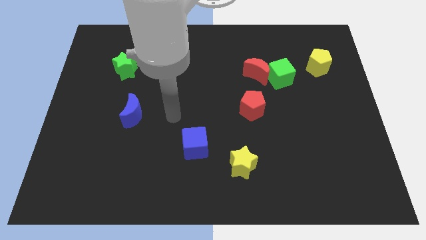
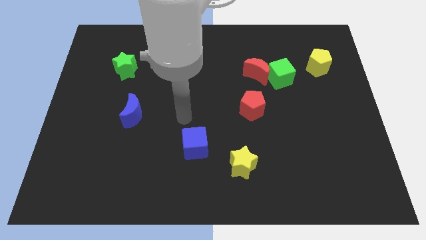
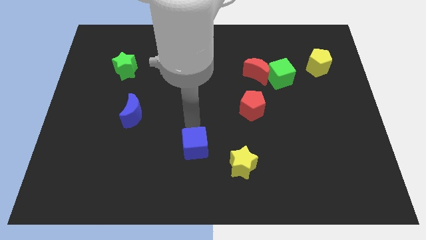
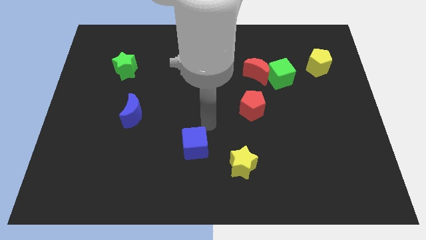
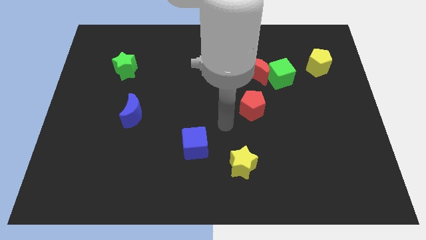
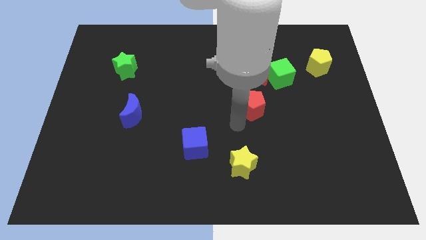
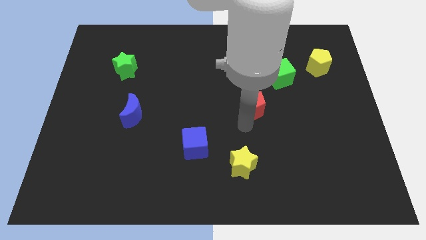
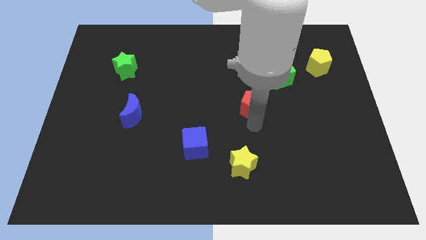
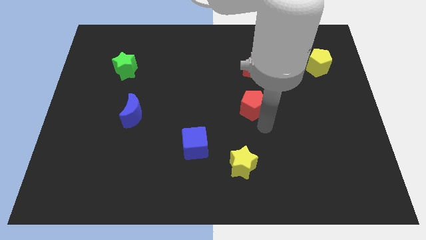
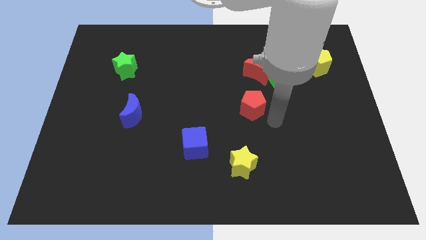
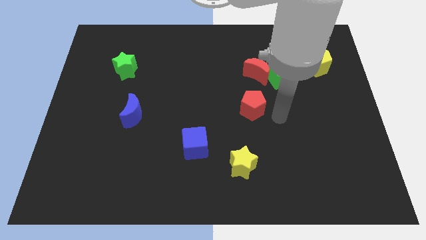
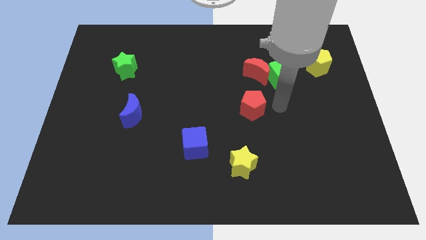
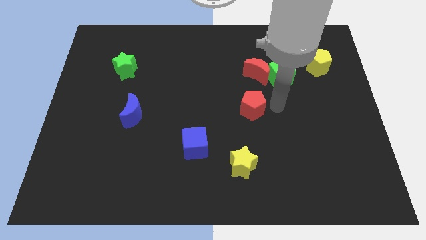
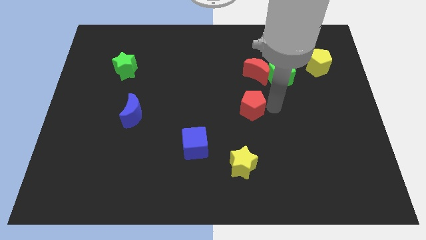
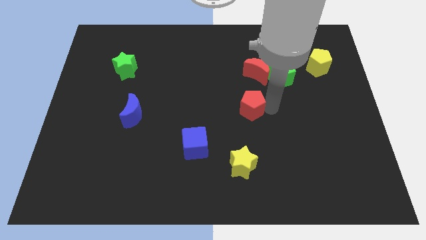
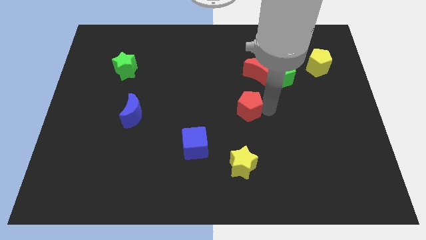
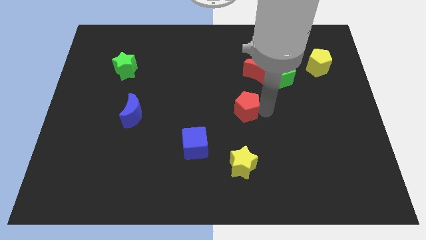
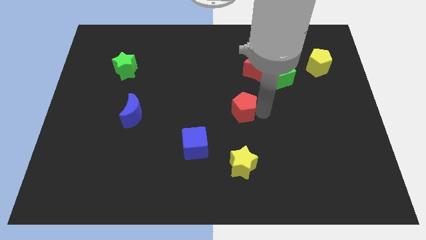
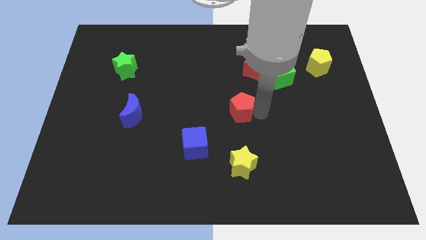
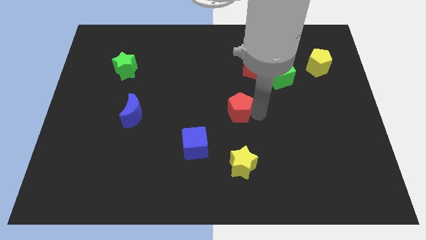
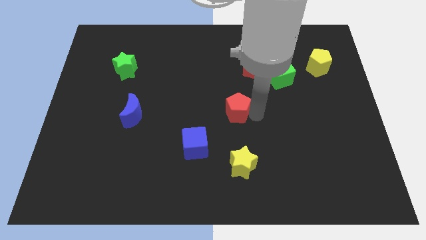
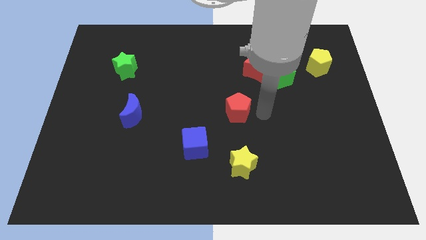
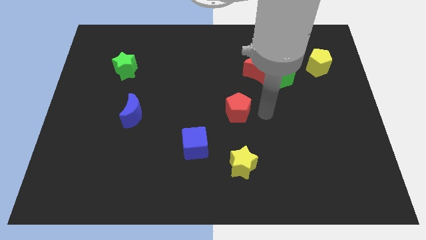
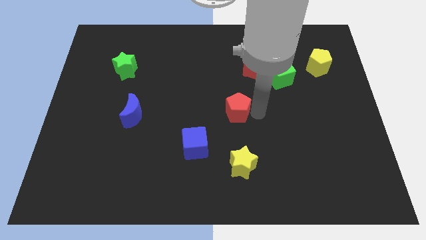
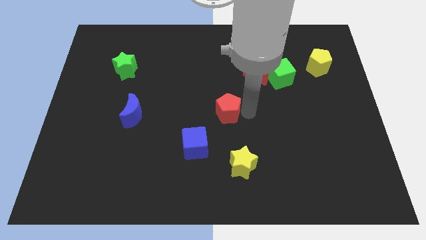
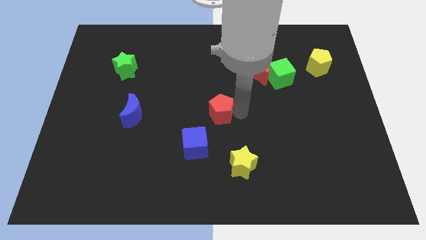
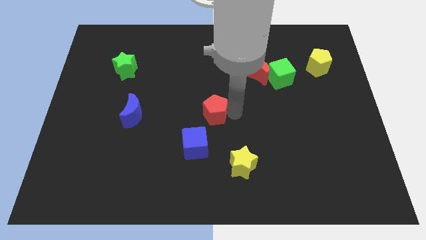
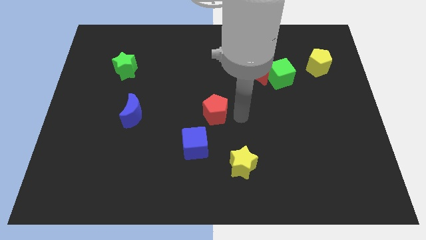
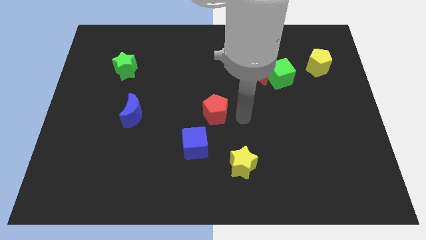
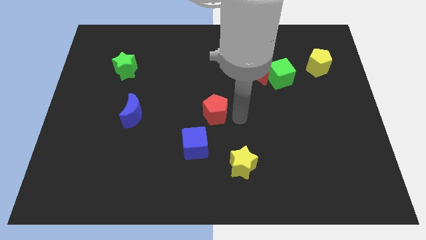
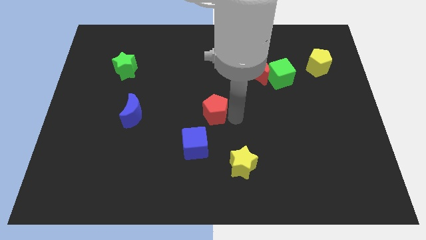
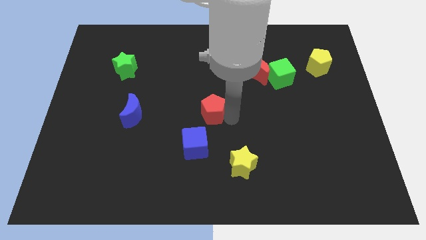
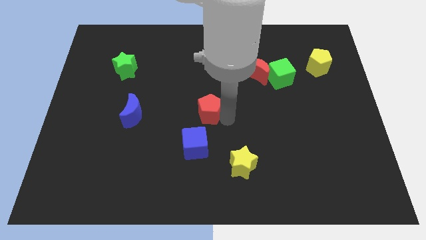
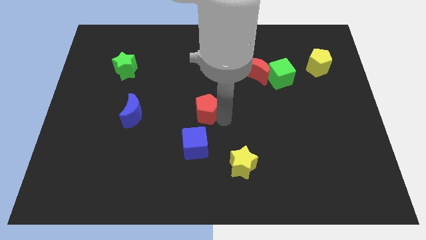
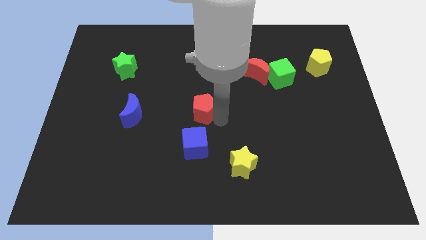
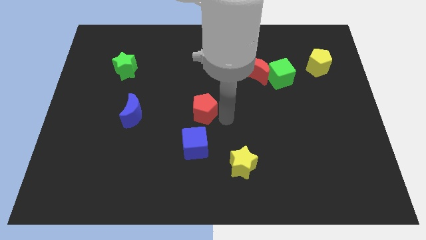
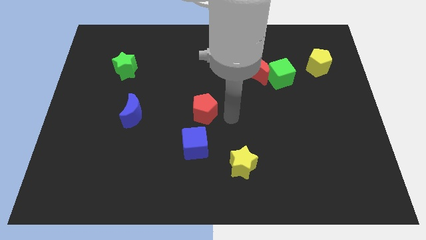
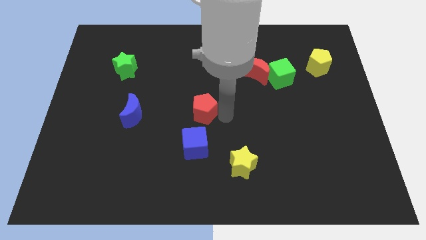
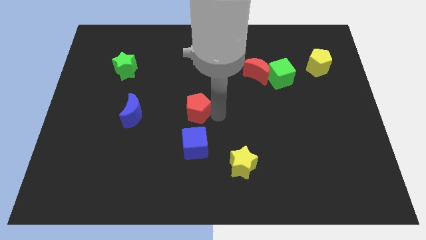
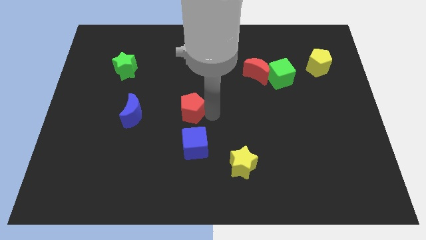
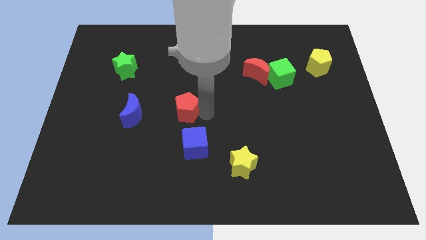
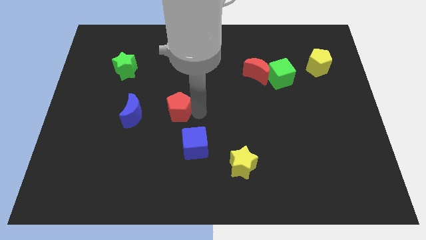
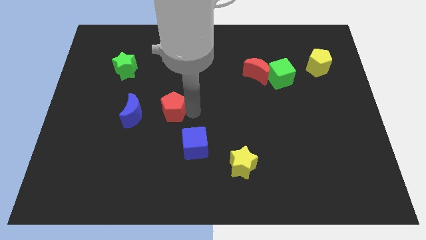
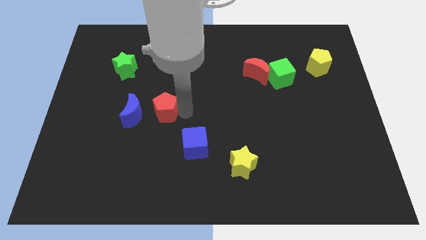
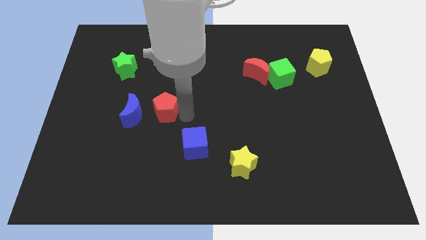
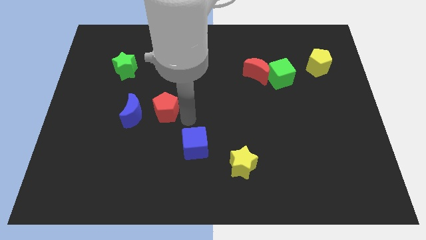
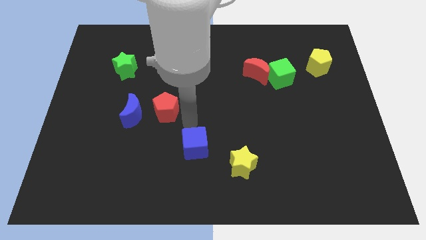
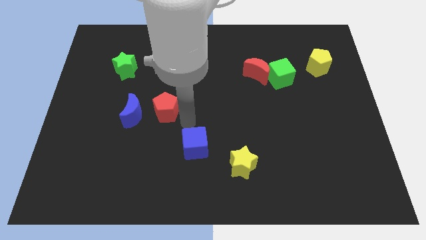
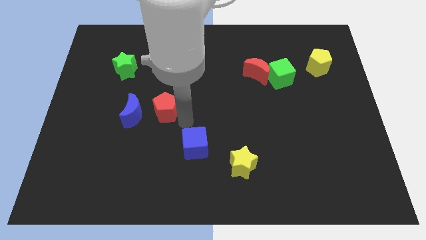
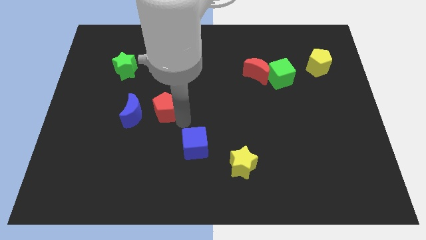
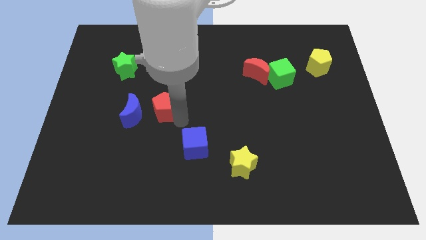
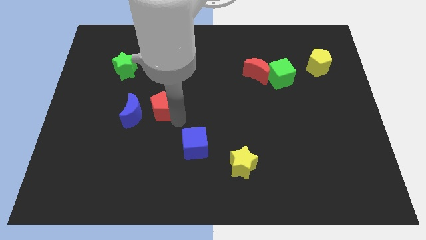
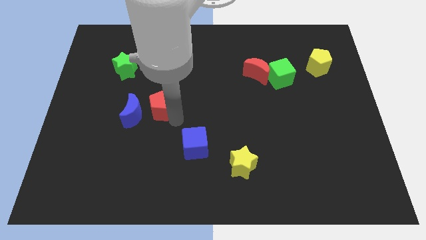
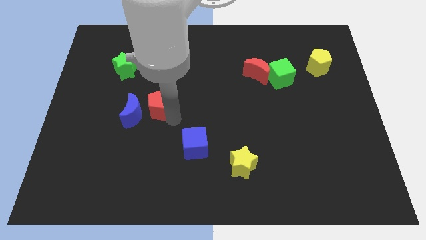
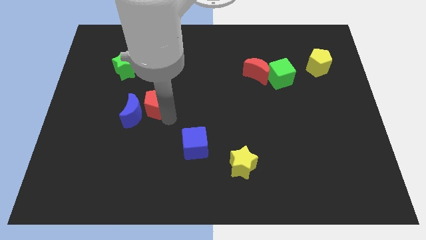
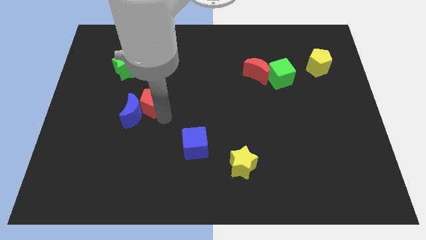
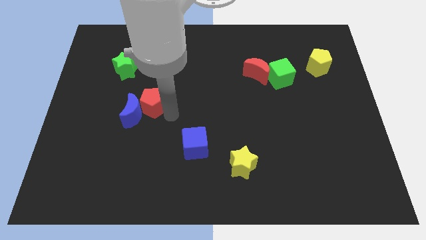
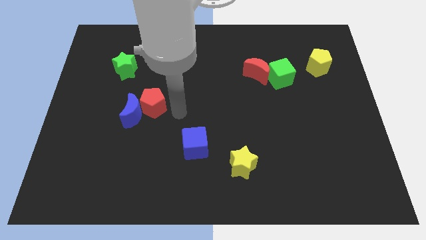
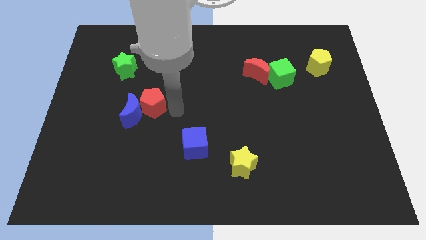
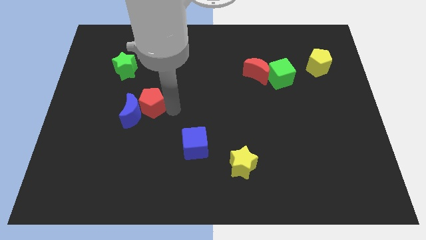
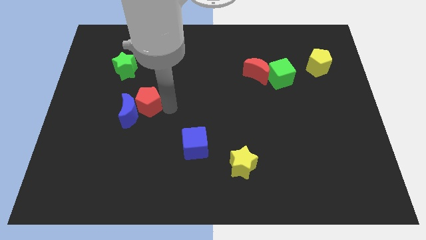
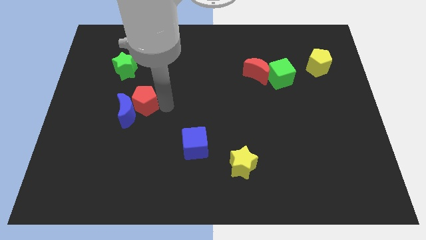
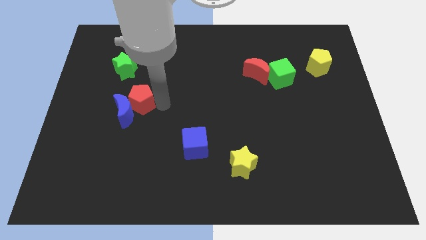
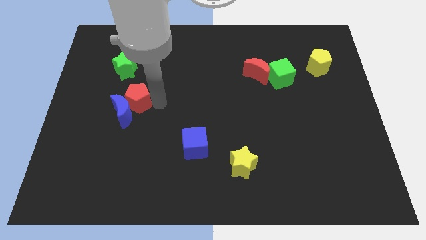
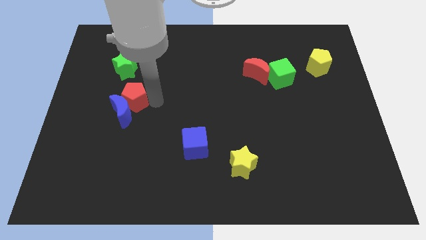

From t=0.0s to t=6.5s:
slide the red pentagon to the top left of the blue moon

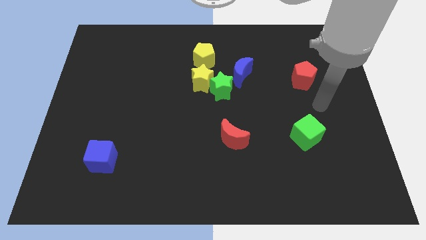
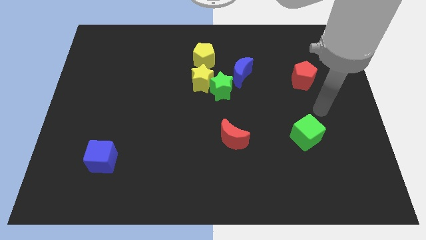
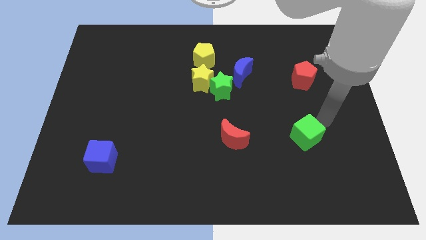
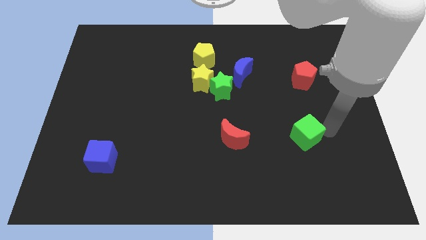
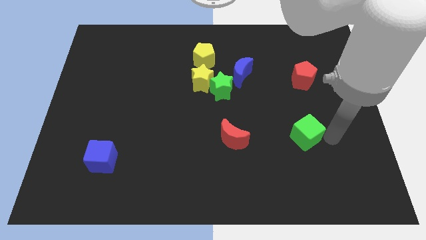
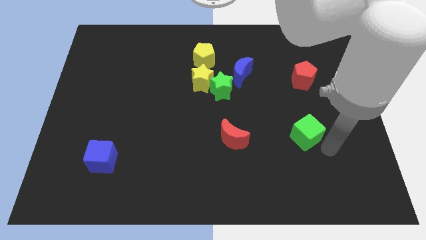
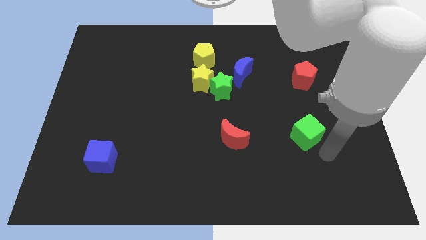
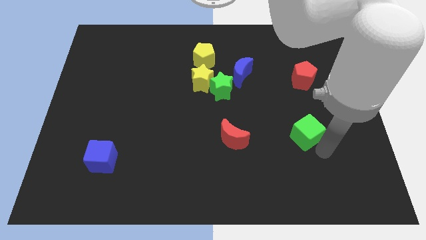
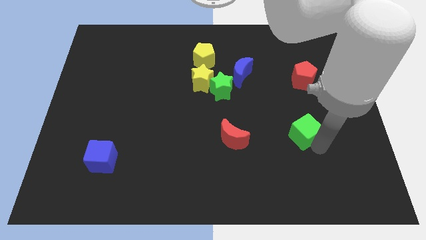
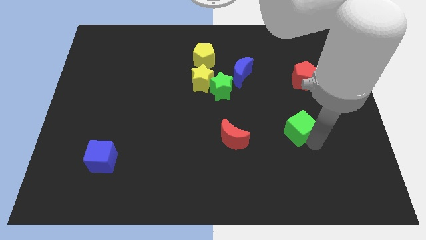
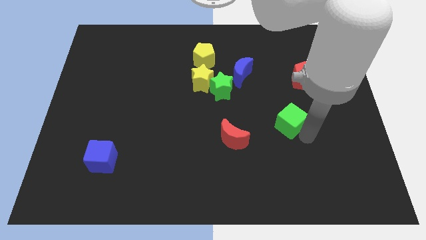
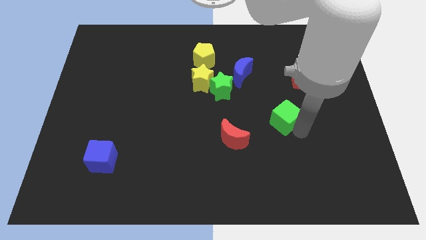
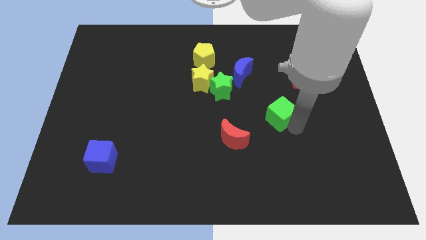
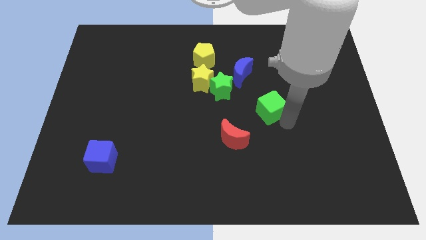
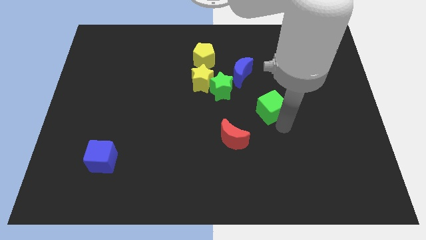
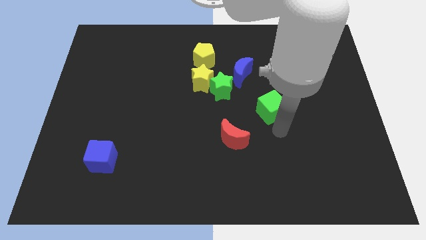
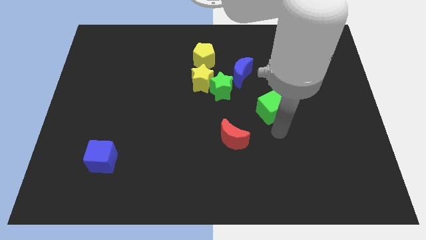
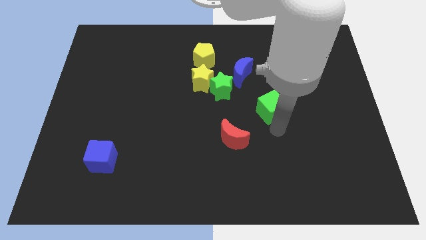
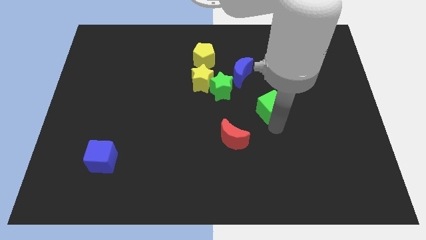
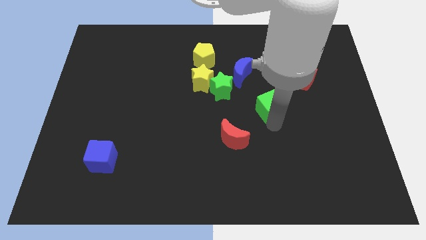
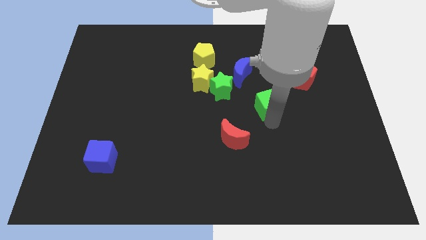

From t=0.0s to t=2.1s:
move the green cube to the bottom right side of the blue moon
